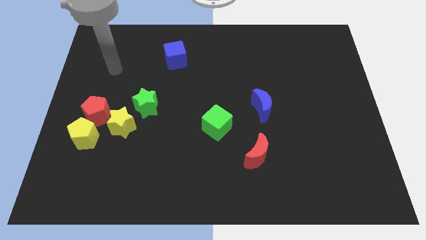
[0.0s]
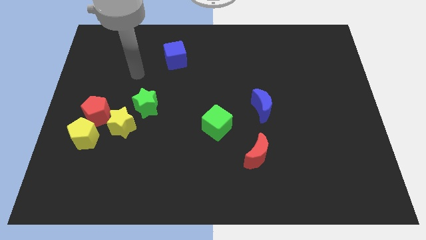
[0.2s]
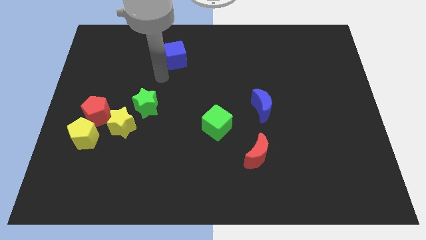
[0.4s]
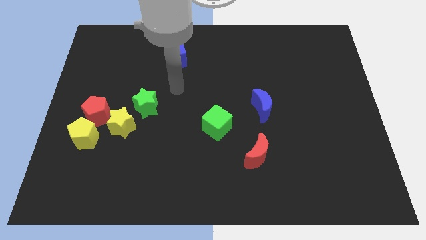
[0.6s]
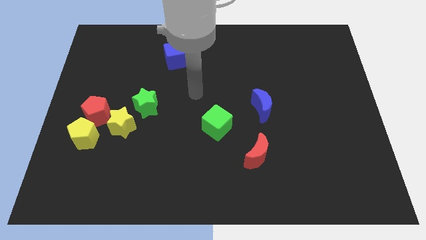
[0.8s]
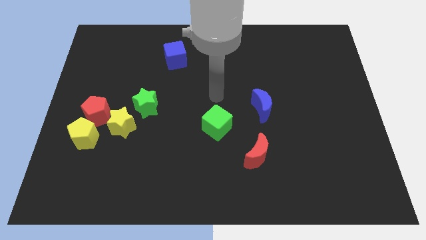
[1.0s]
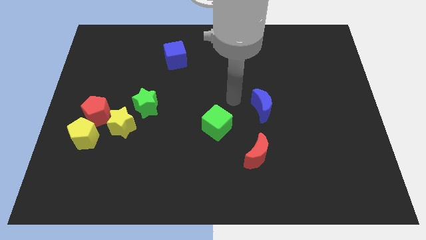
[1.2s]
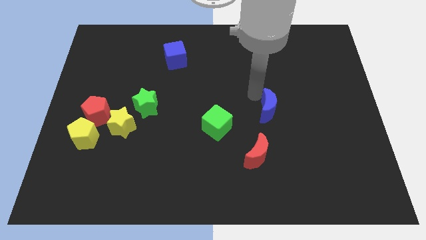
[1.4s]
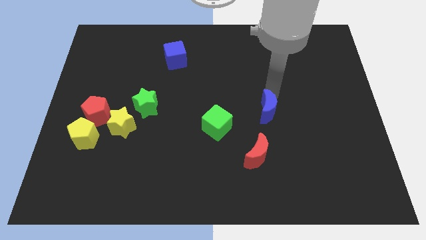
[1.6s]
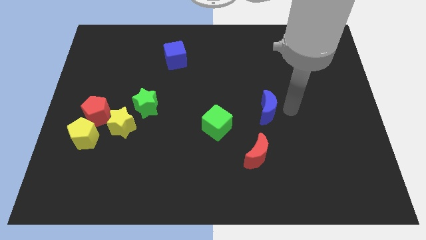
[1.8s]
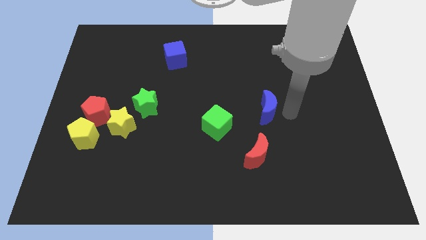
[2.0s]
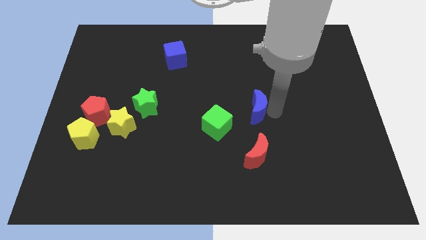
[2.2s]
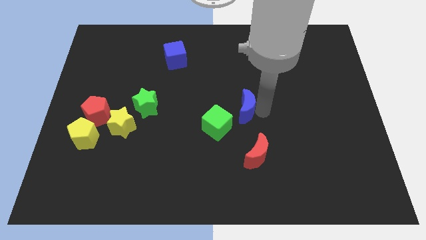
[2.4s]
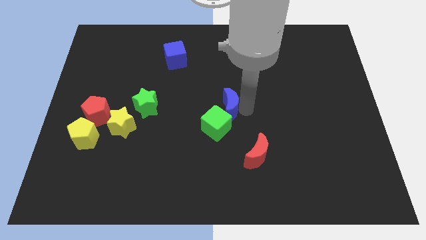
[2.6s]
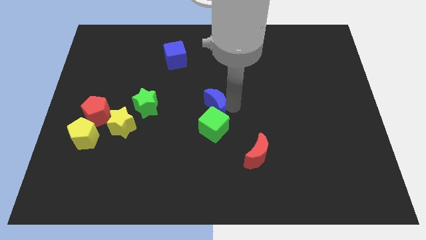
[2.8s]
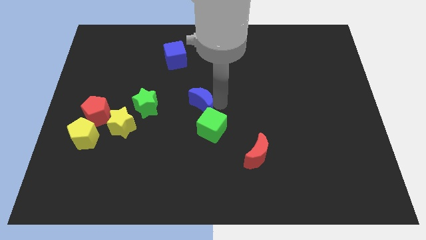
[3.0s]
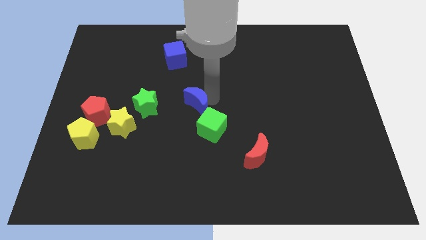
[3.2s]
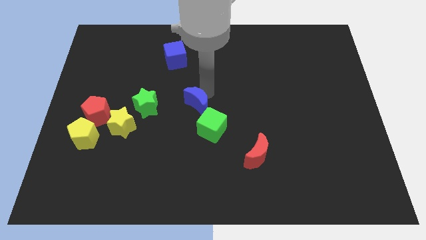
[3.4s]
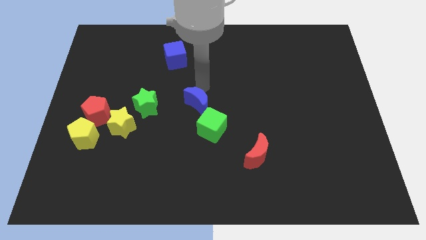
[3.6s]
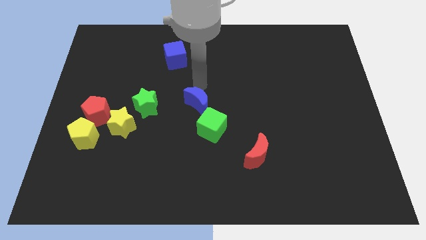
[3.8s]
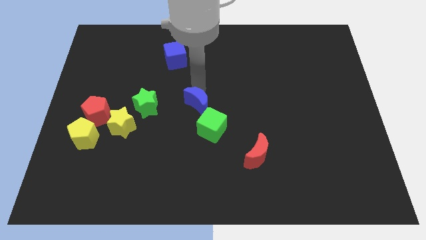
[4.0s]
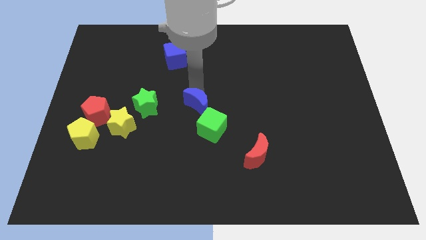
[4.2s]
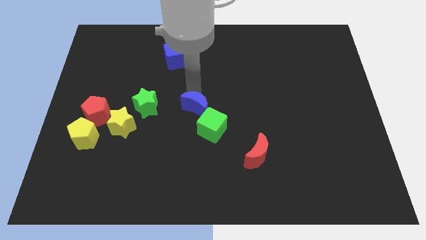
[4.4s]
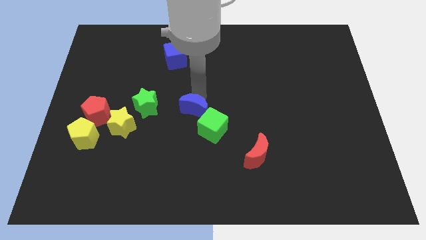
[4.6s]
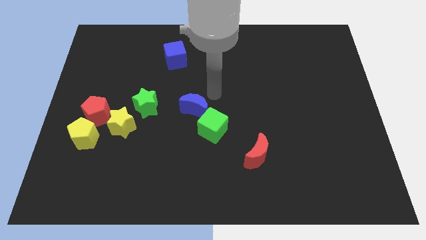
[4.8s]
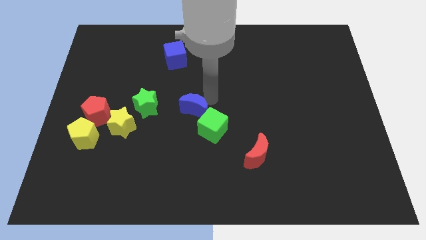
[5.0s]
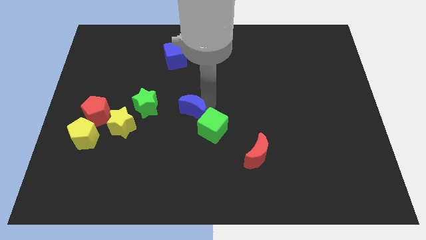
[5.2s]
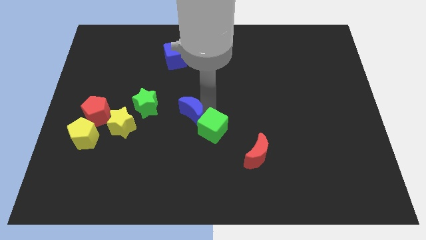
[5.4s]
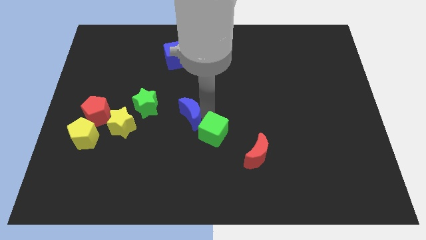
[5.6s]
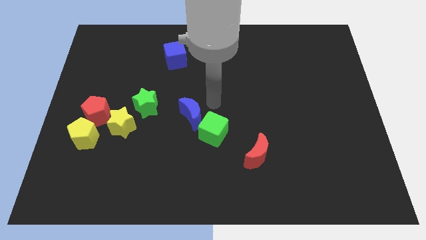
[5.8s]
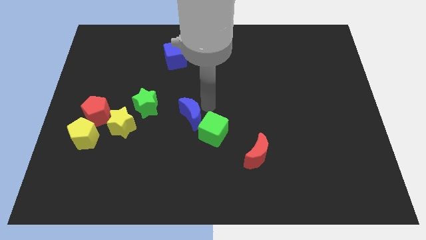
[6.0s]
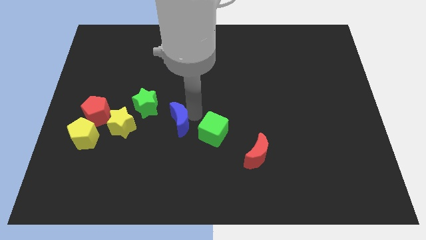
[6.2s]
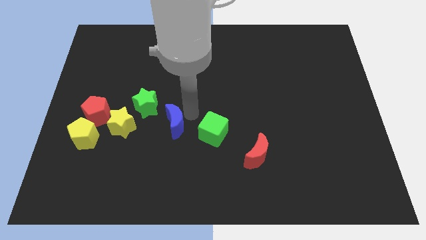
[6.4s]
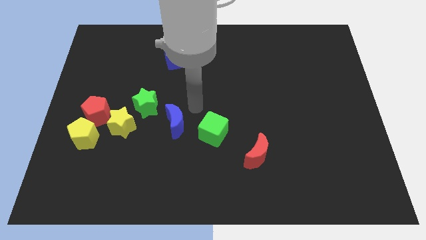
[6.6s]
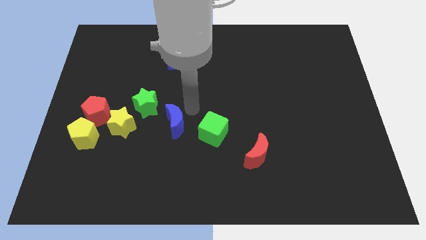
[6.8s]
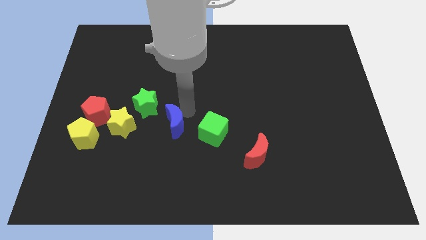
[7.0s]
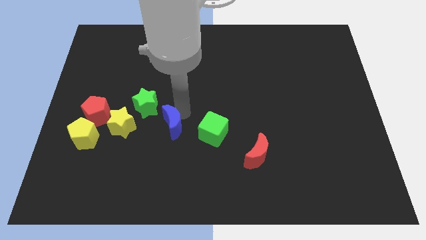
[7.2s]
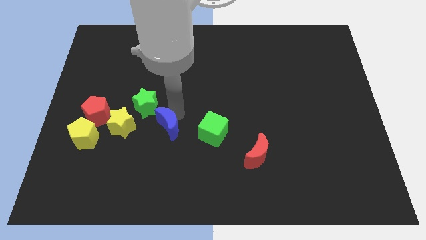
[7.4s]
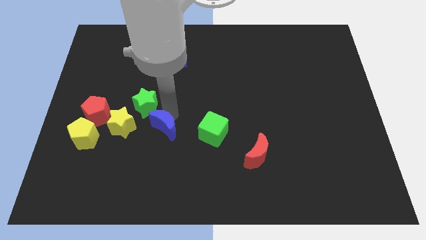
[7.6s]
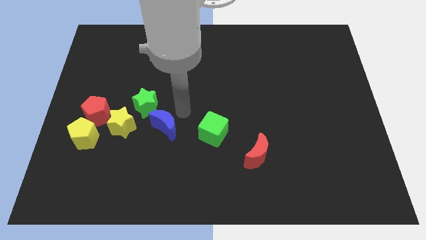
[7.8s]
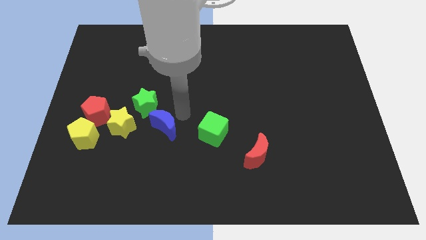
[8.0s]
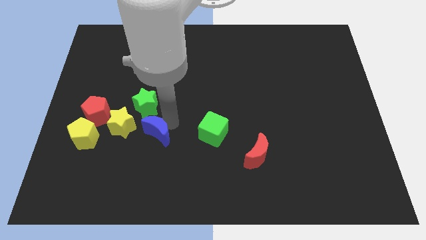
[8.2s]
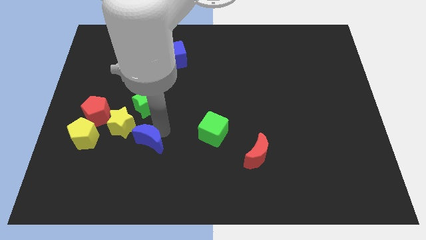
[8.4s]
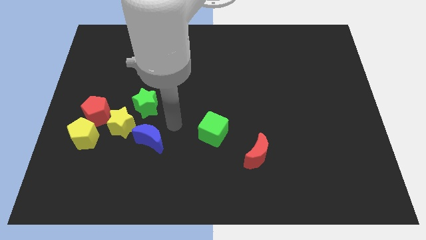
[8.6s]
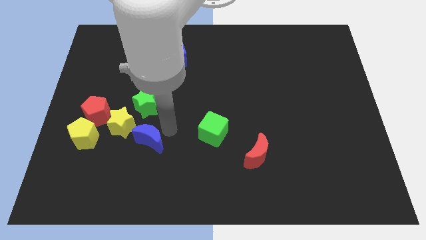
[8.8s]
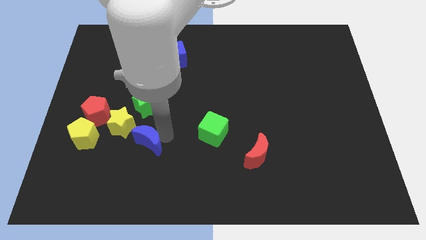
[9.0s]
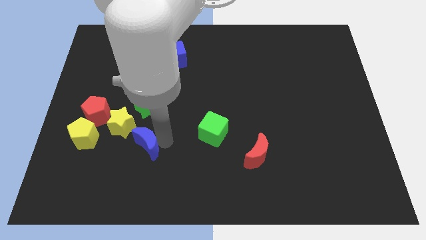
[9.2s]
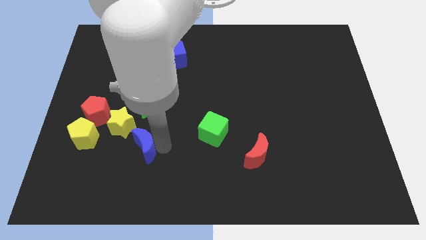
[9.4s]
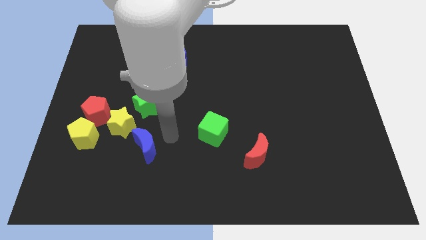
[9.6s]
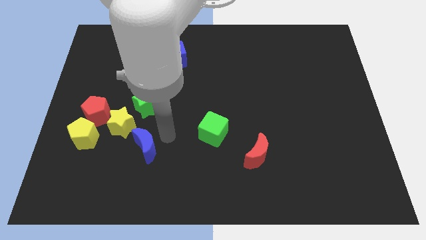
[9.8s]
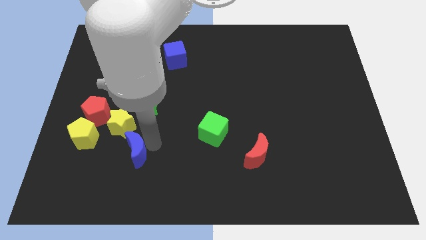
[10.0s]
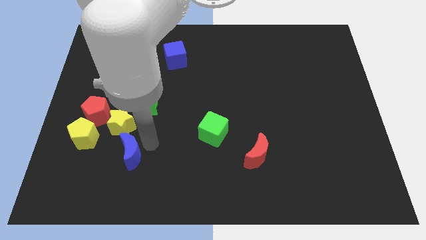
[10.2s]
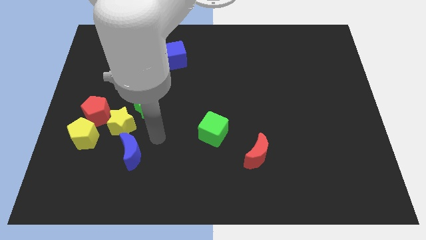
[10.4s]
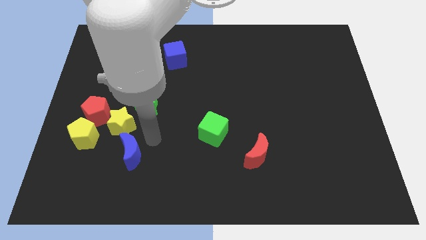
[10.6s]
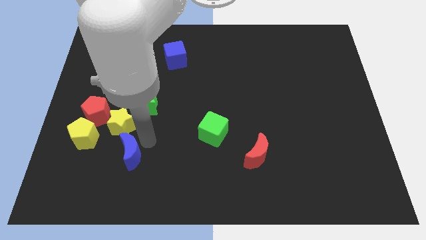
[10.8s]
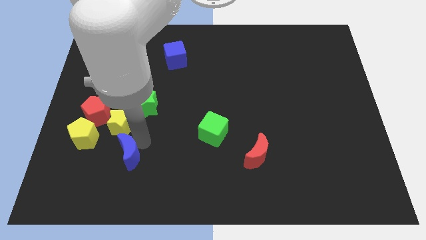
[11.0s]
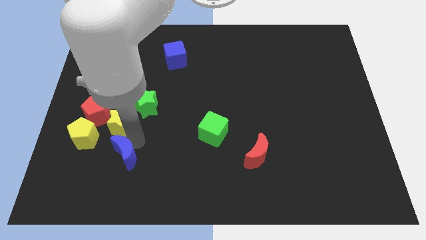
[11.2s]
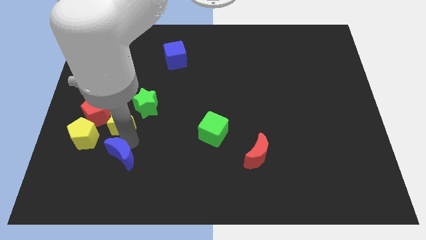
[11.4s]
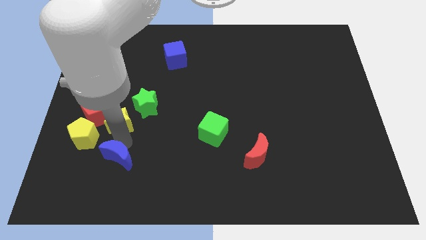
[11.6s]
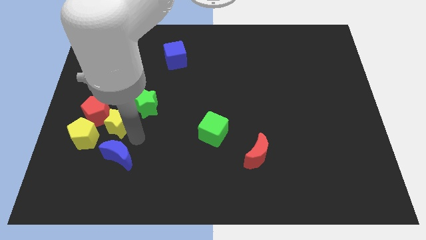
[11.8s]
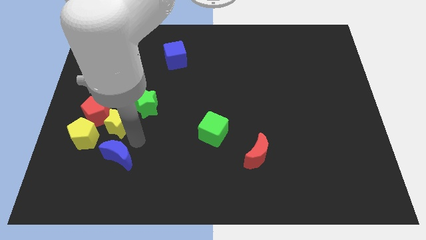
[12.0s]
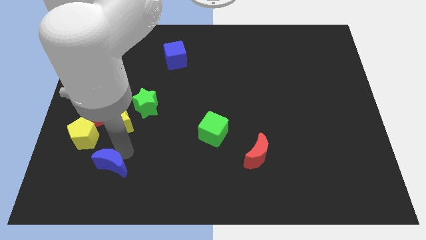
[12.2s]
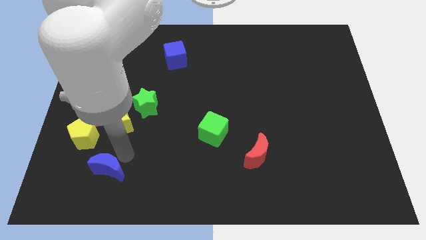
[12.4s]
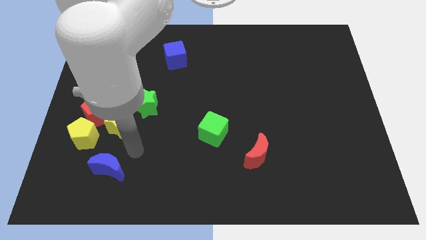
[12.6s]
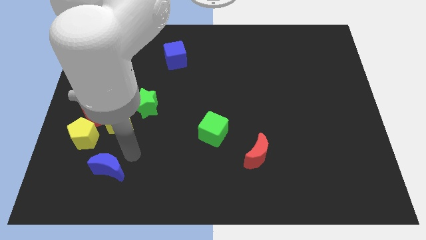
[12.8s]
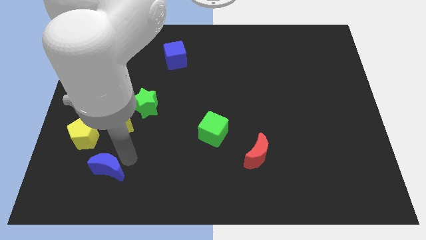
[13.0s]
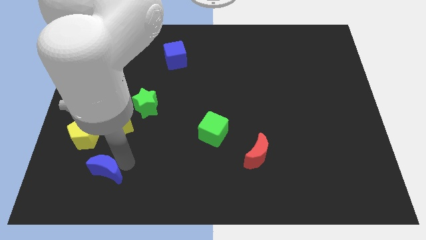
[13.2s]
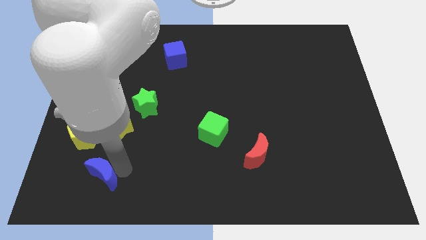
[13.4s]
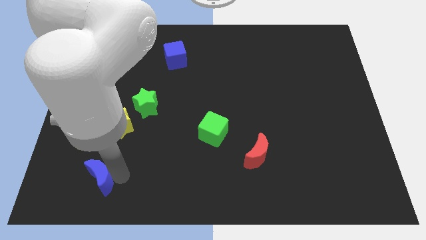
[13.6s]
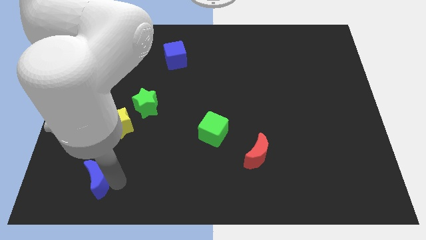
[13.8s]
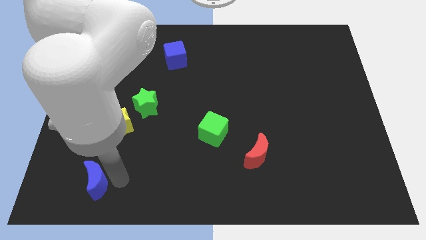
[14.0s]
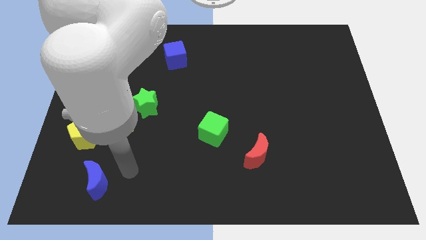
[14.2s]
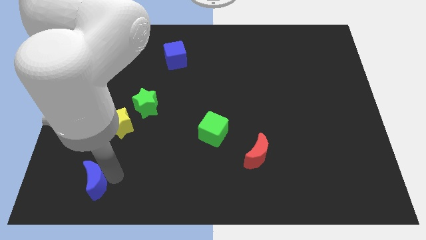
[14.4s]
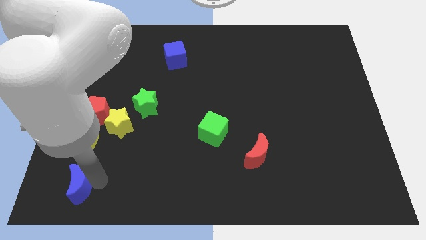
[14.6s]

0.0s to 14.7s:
move the blue moon to the bottom left
